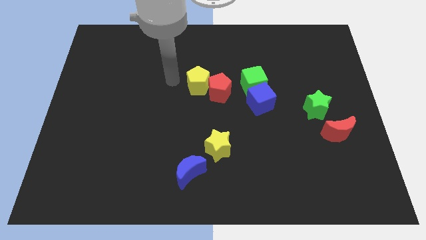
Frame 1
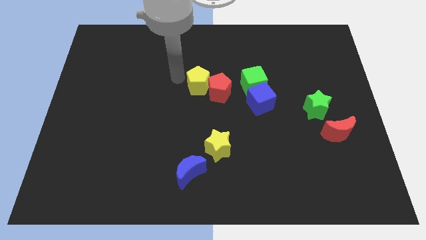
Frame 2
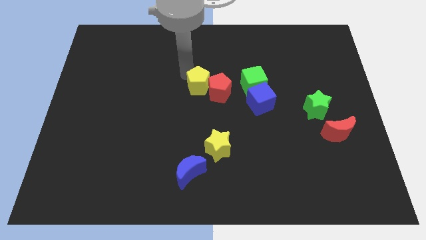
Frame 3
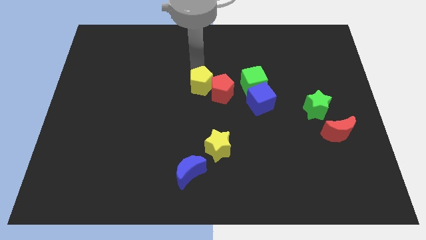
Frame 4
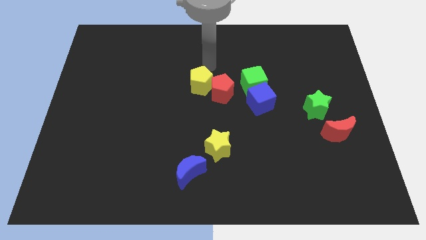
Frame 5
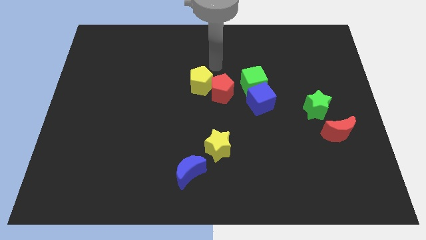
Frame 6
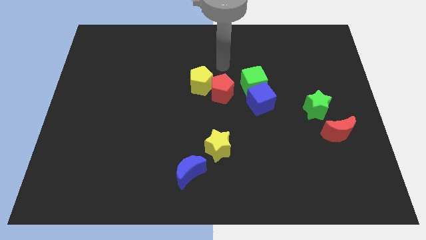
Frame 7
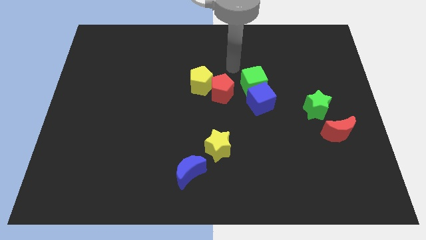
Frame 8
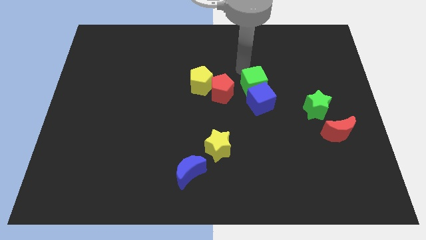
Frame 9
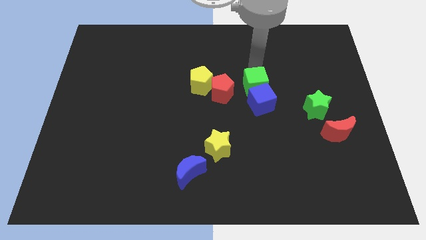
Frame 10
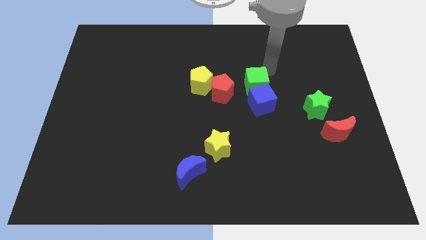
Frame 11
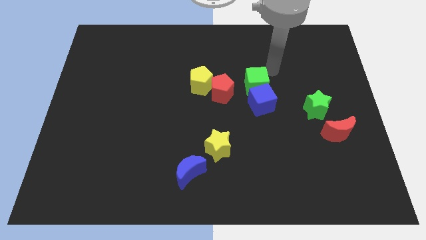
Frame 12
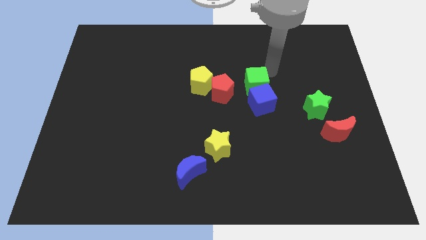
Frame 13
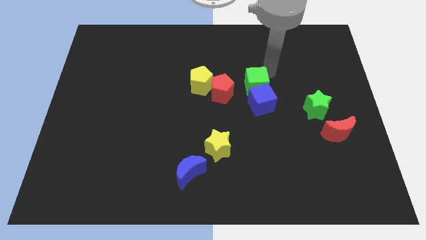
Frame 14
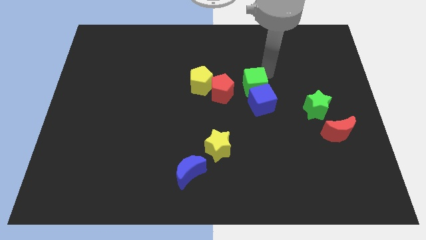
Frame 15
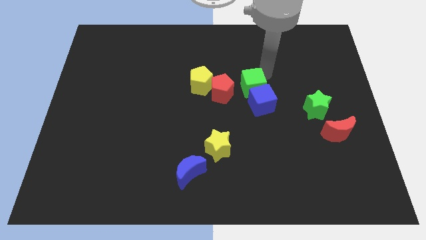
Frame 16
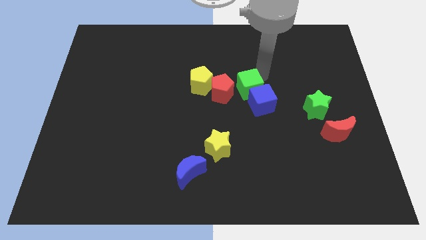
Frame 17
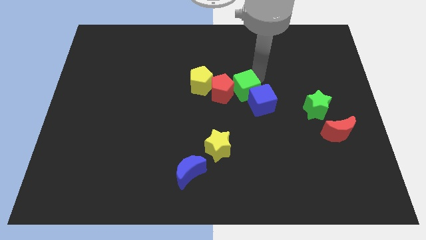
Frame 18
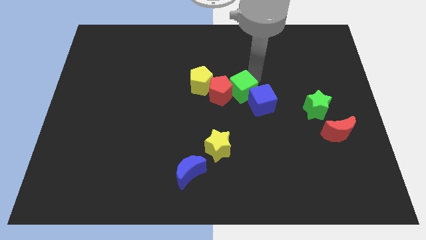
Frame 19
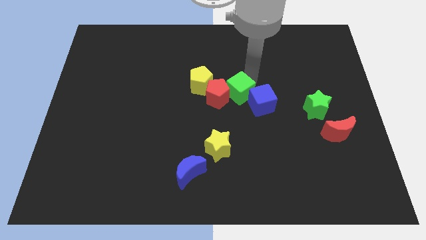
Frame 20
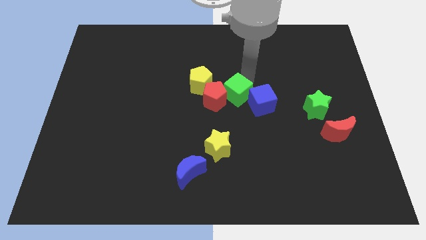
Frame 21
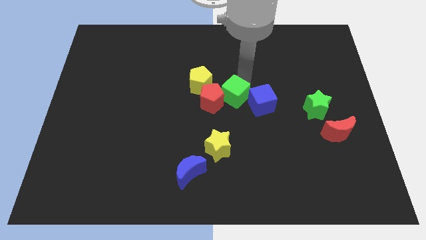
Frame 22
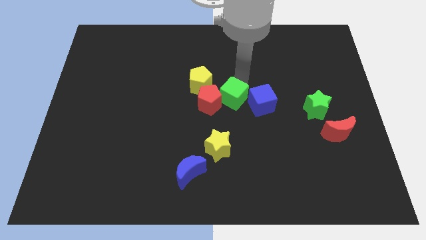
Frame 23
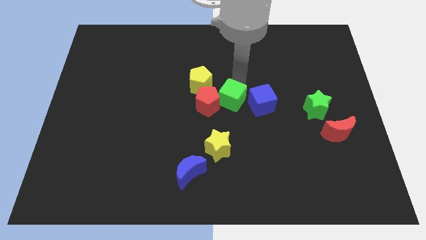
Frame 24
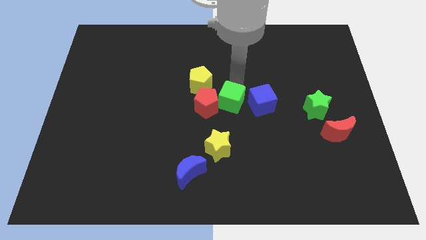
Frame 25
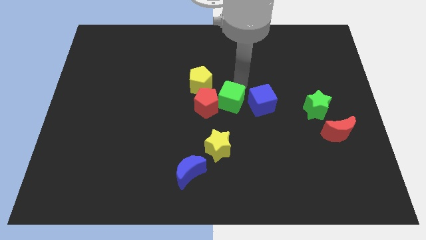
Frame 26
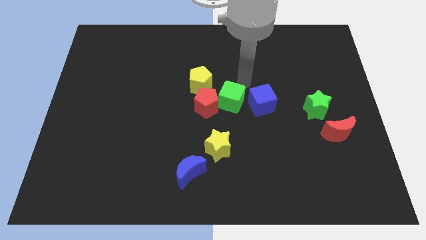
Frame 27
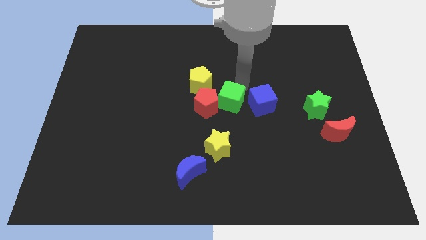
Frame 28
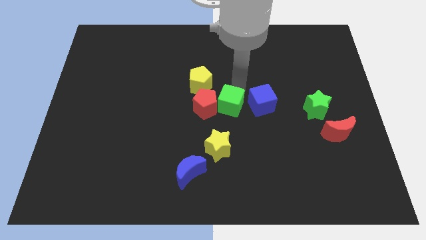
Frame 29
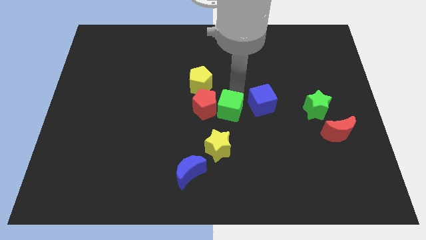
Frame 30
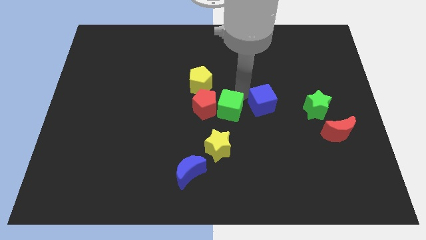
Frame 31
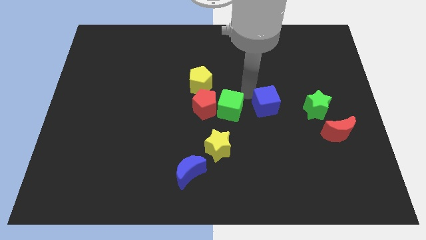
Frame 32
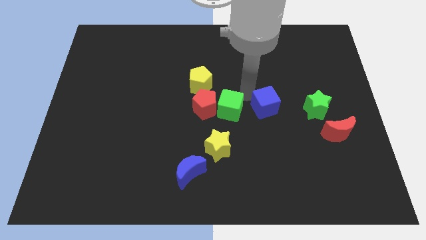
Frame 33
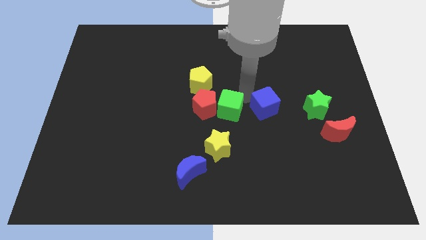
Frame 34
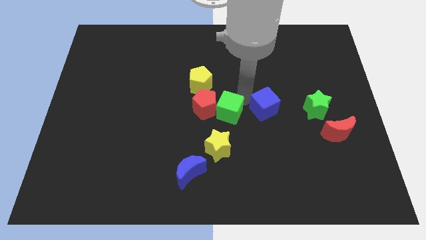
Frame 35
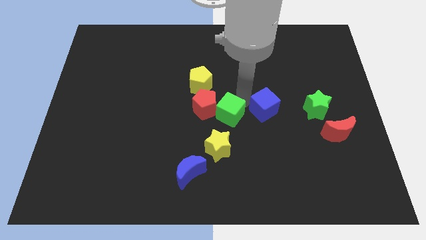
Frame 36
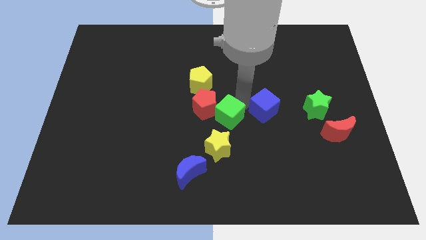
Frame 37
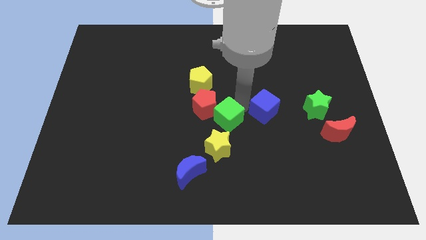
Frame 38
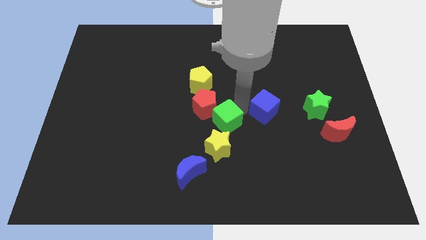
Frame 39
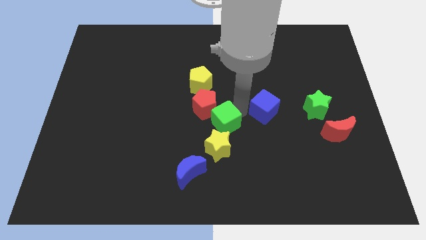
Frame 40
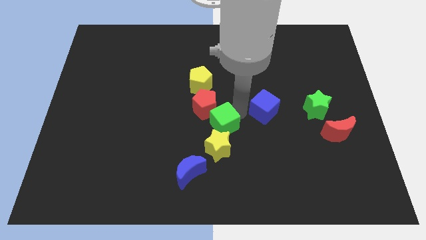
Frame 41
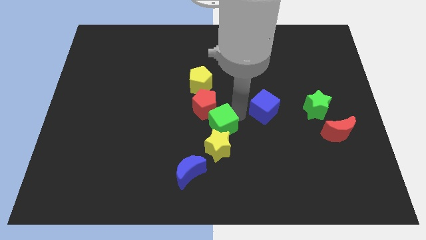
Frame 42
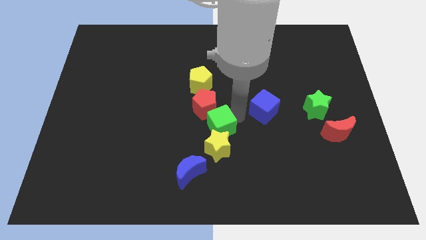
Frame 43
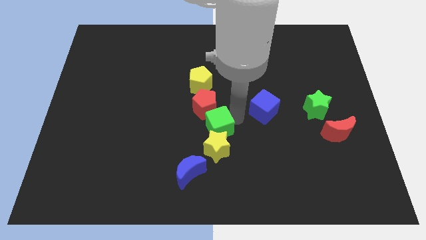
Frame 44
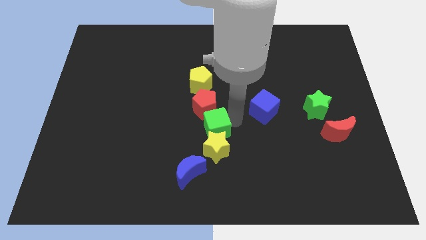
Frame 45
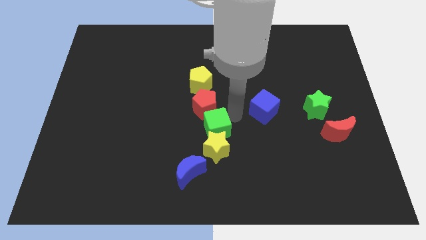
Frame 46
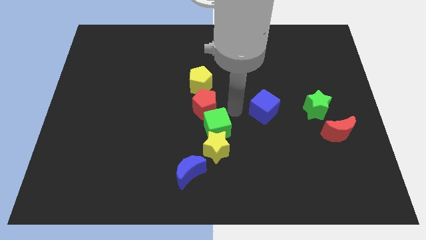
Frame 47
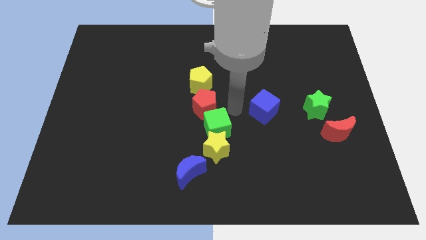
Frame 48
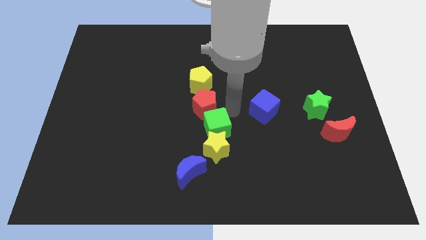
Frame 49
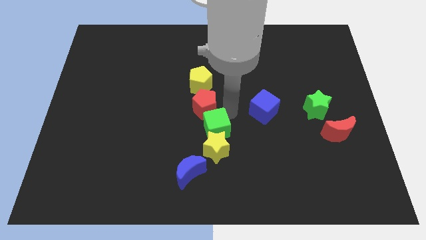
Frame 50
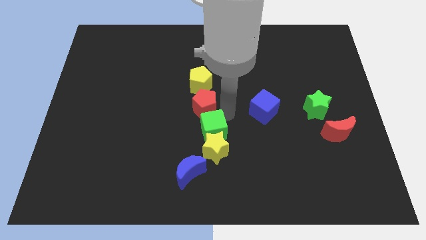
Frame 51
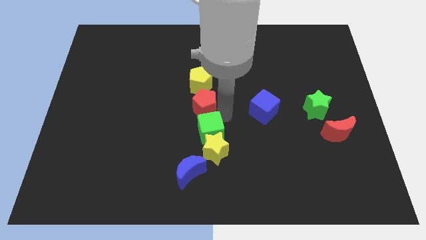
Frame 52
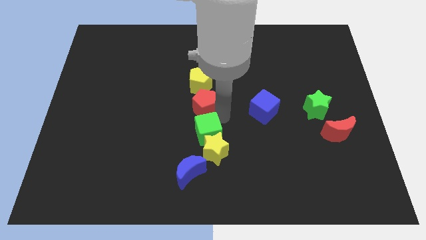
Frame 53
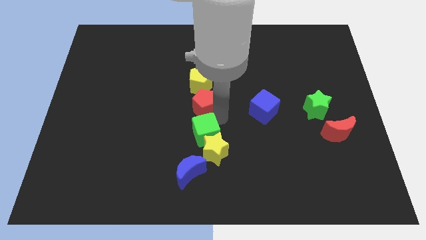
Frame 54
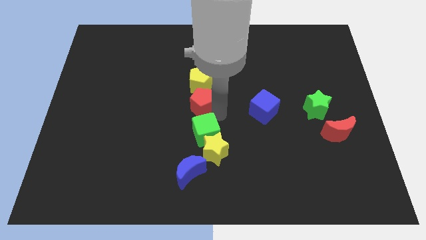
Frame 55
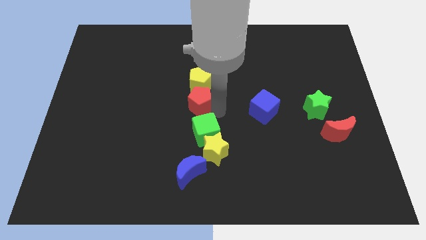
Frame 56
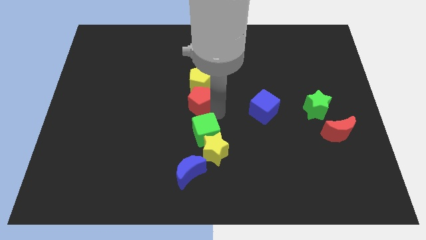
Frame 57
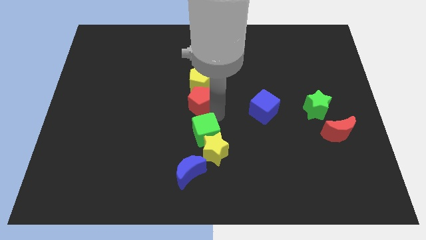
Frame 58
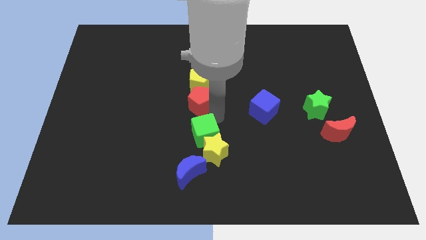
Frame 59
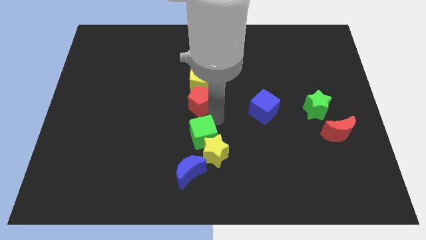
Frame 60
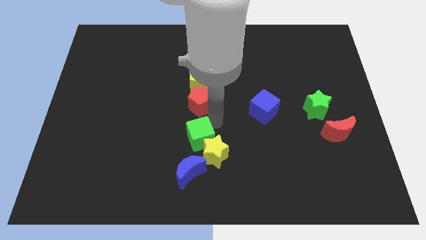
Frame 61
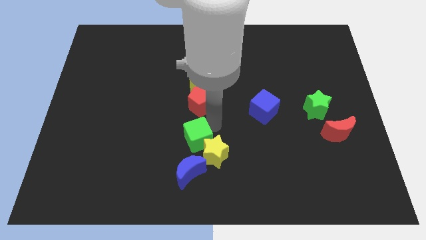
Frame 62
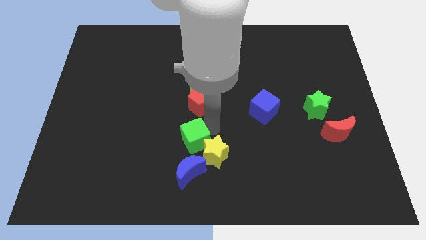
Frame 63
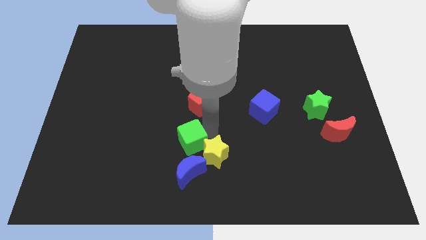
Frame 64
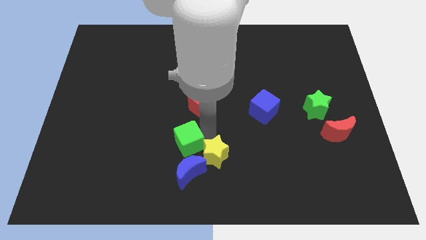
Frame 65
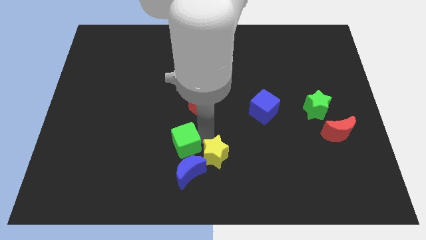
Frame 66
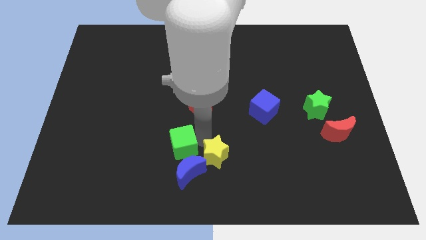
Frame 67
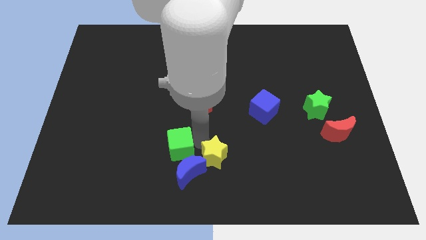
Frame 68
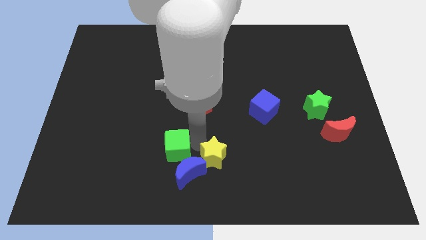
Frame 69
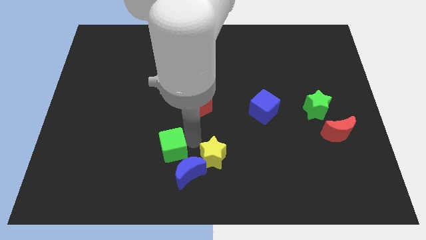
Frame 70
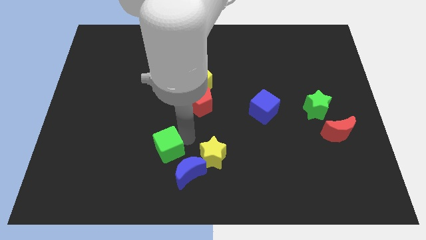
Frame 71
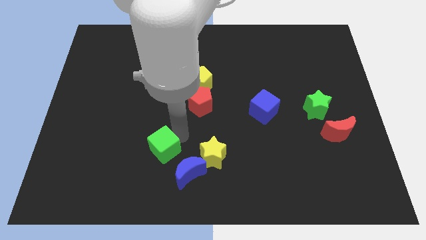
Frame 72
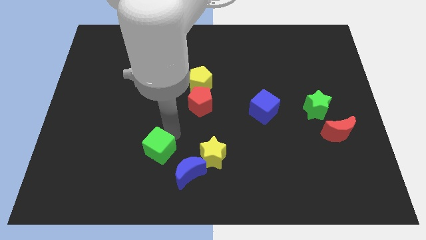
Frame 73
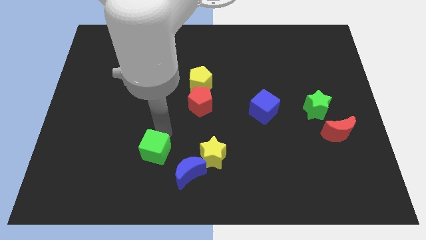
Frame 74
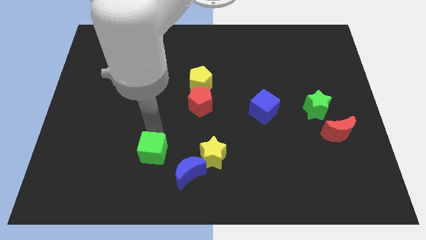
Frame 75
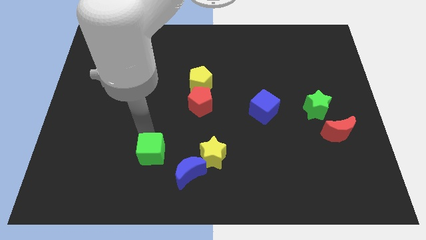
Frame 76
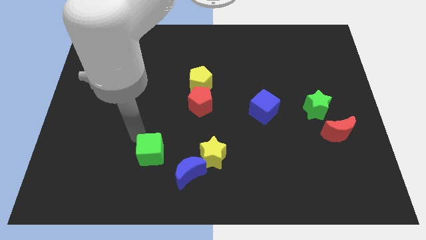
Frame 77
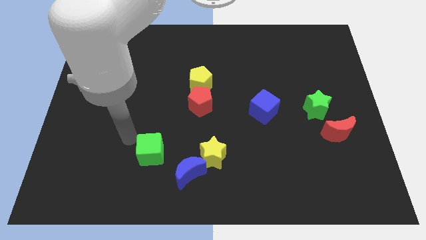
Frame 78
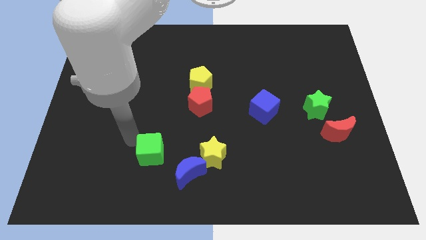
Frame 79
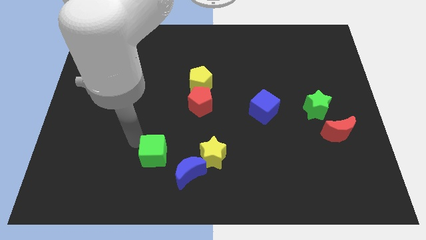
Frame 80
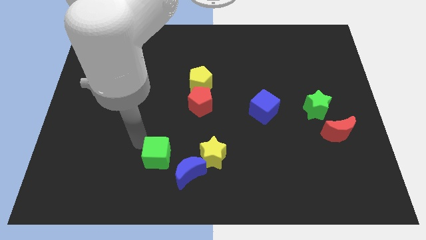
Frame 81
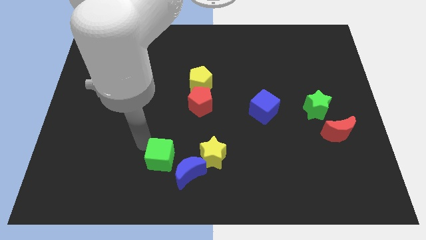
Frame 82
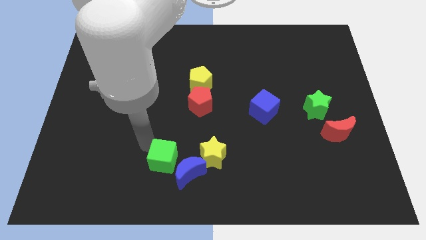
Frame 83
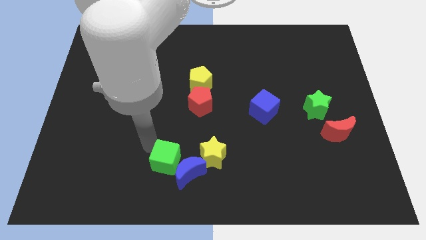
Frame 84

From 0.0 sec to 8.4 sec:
push the green cube next to the blue moon
